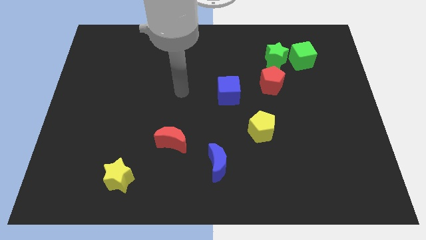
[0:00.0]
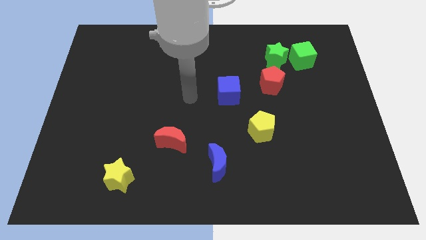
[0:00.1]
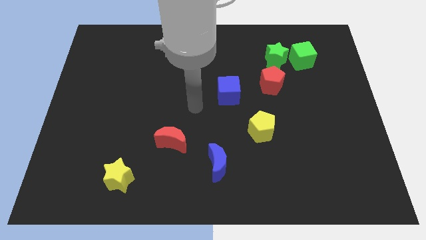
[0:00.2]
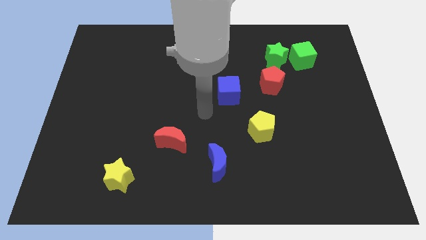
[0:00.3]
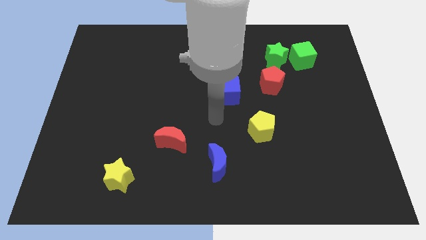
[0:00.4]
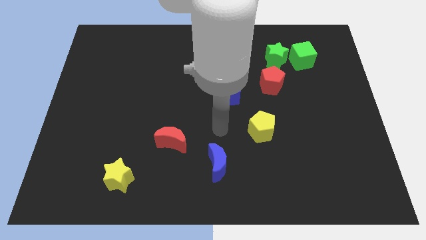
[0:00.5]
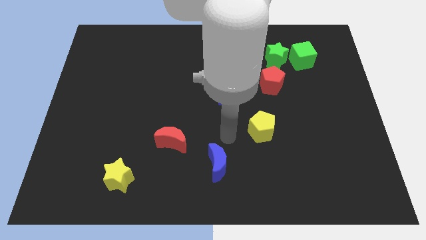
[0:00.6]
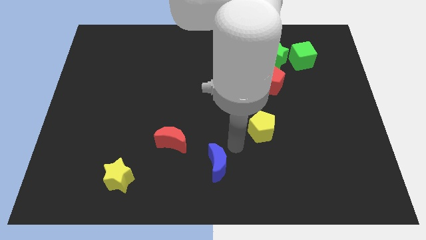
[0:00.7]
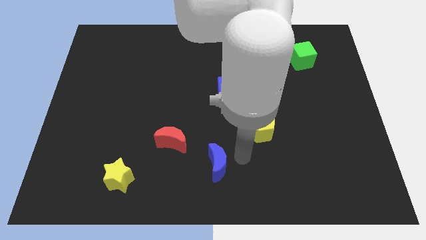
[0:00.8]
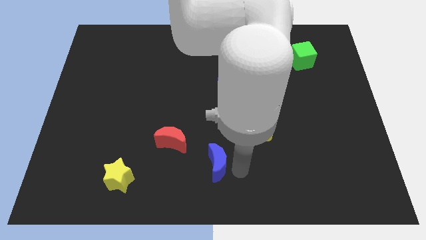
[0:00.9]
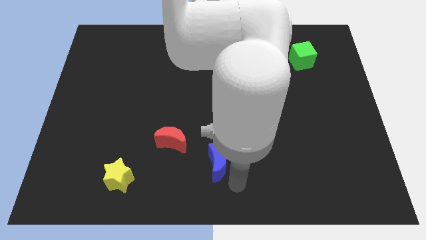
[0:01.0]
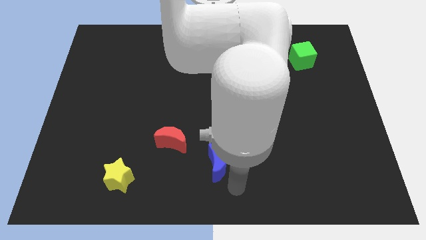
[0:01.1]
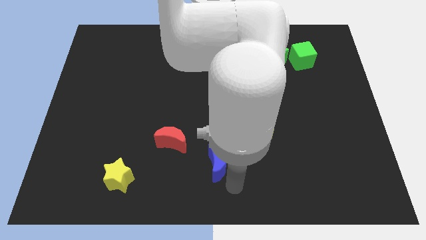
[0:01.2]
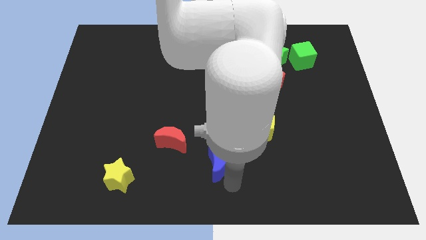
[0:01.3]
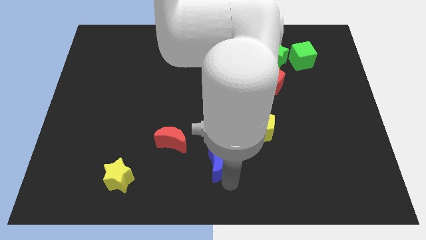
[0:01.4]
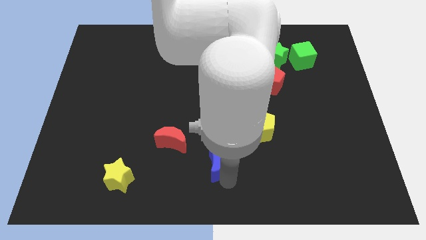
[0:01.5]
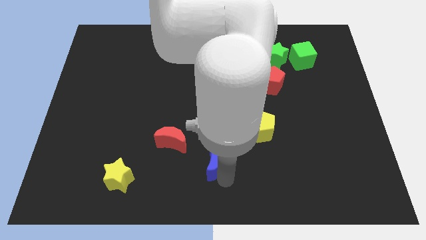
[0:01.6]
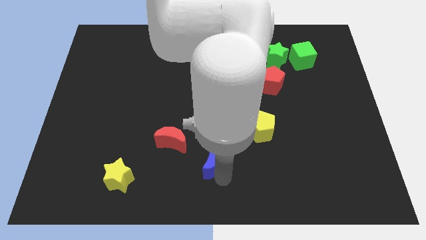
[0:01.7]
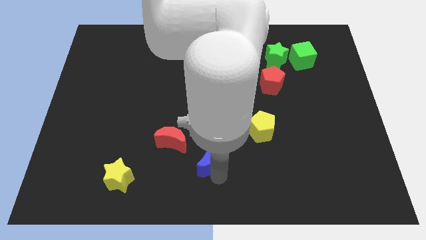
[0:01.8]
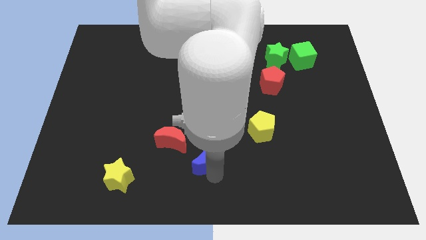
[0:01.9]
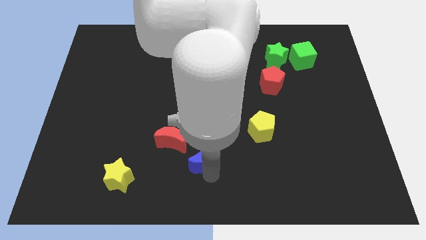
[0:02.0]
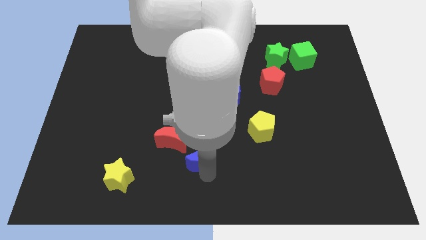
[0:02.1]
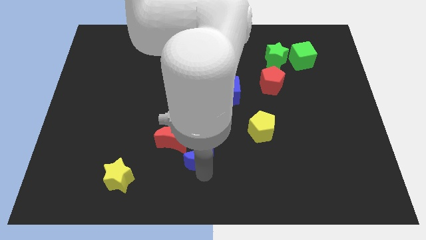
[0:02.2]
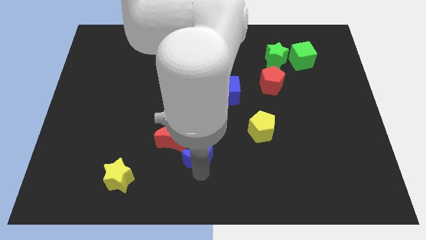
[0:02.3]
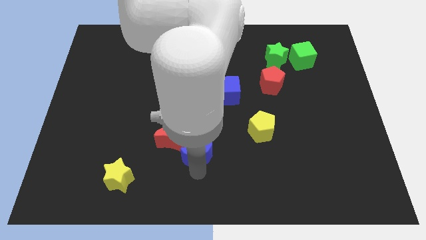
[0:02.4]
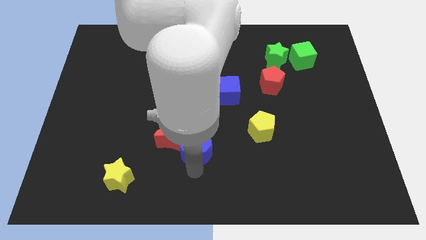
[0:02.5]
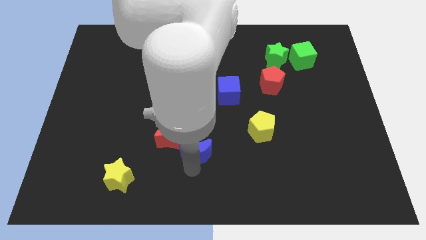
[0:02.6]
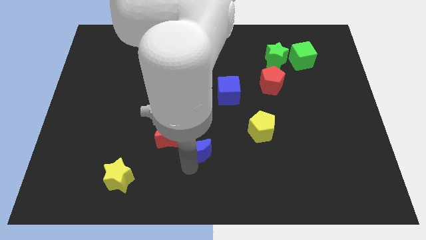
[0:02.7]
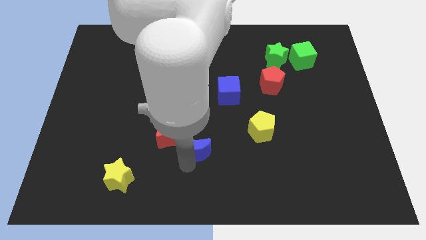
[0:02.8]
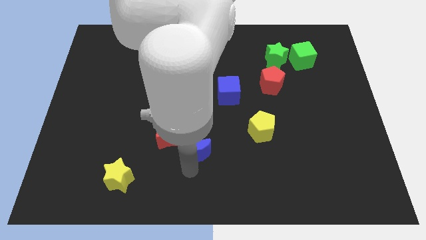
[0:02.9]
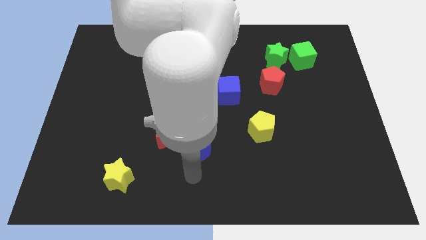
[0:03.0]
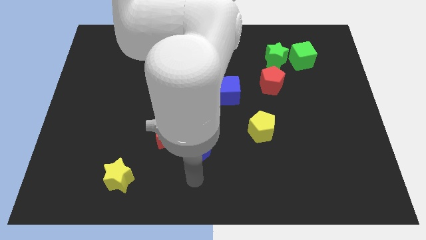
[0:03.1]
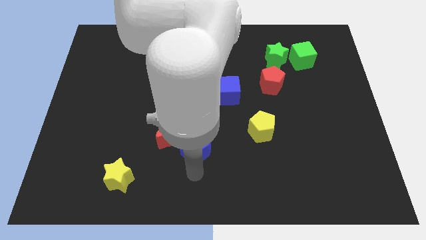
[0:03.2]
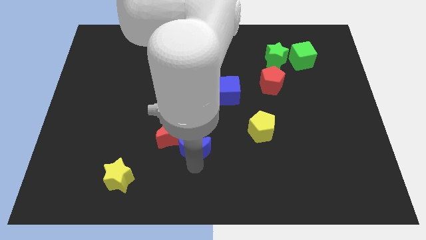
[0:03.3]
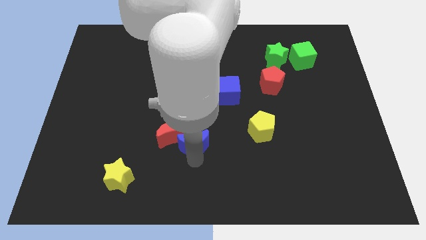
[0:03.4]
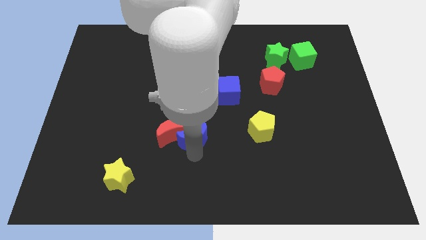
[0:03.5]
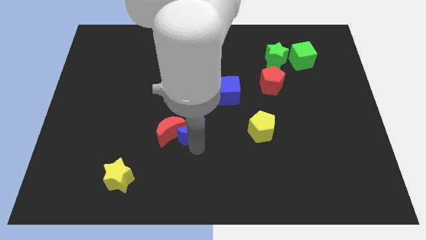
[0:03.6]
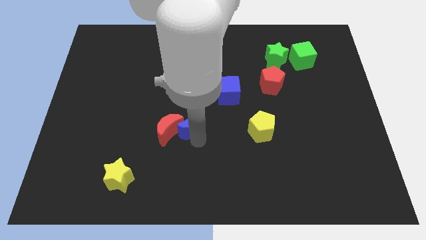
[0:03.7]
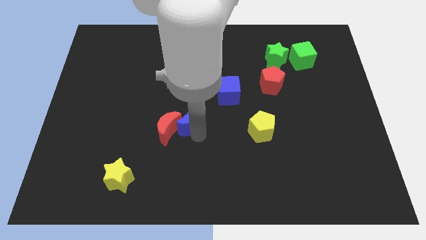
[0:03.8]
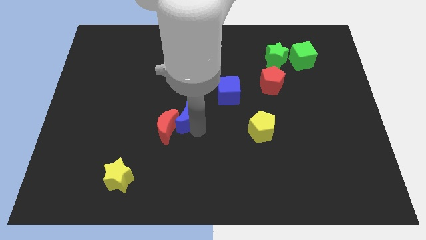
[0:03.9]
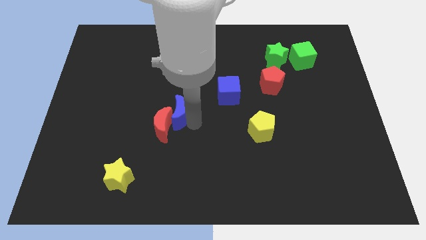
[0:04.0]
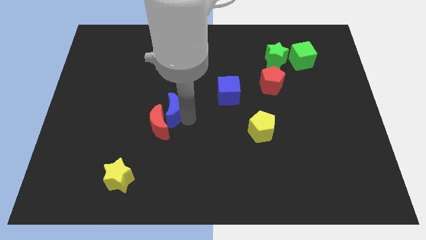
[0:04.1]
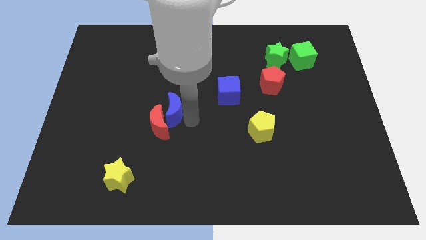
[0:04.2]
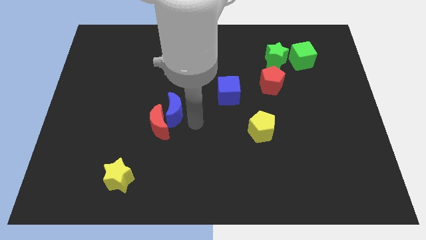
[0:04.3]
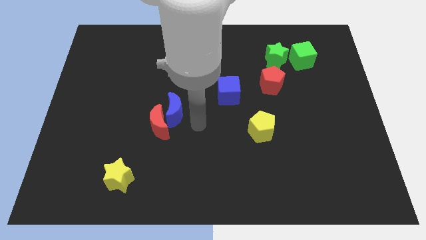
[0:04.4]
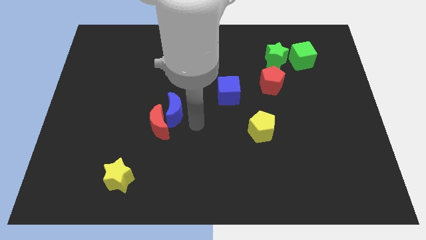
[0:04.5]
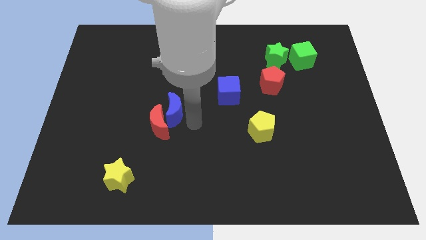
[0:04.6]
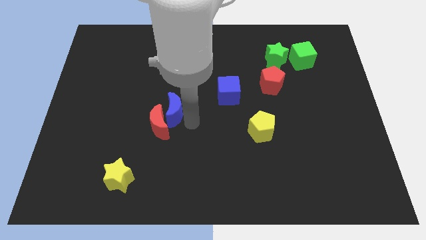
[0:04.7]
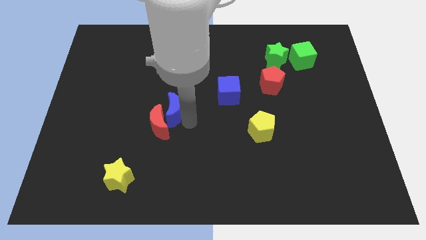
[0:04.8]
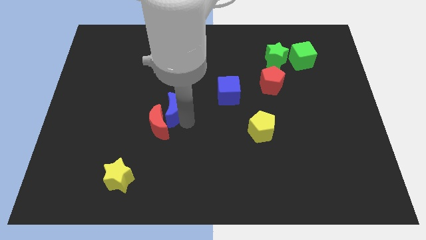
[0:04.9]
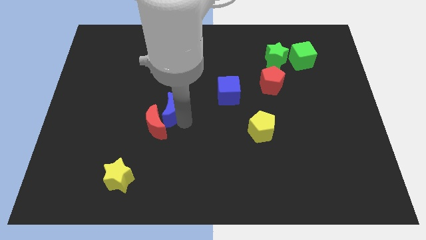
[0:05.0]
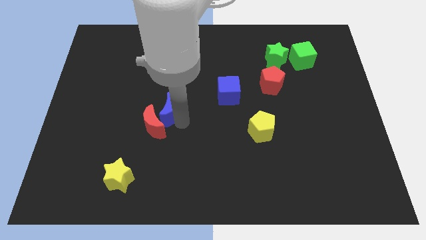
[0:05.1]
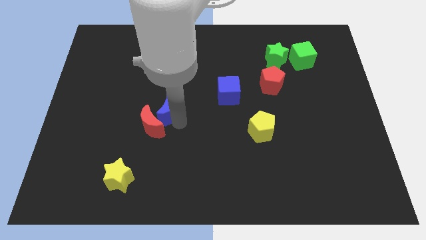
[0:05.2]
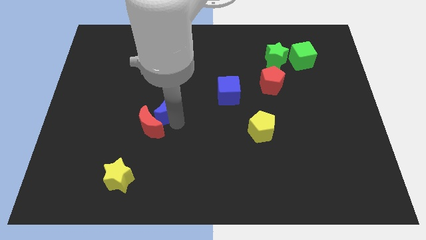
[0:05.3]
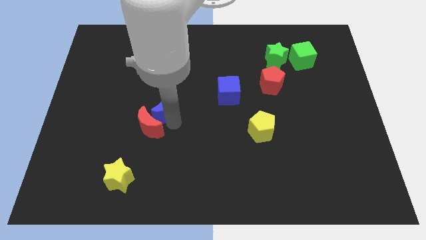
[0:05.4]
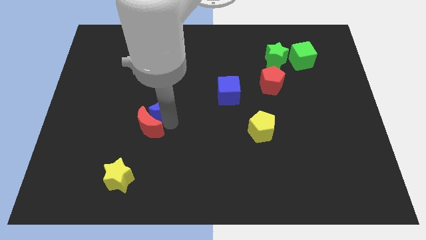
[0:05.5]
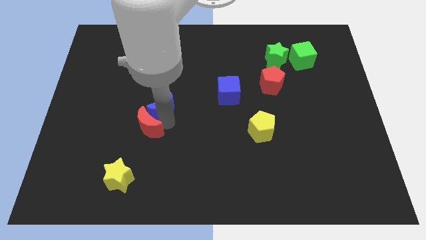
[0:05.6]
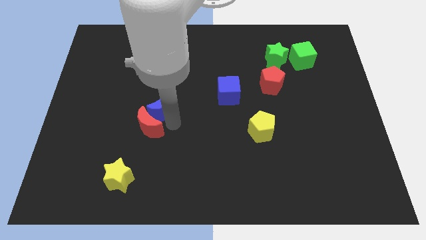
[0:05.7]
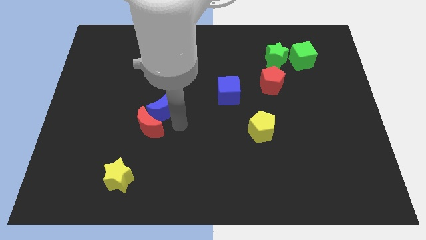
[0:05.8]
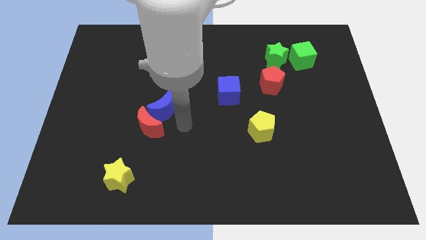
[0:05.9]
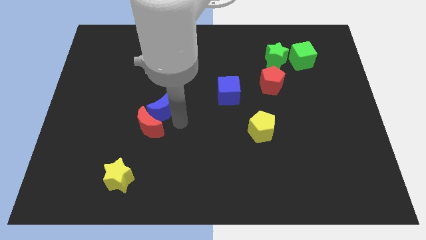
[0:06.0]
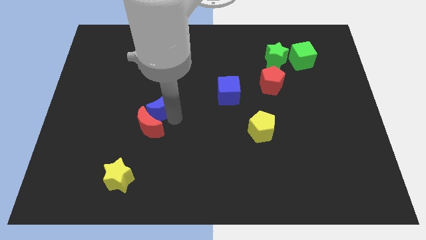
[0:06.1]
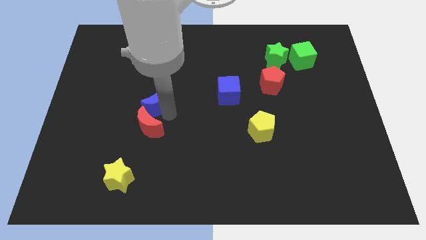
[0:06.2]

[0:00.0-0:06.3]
move the blue moon upwards and to the left diagonally

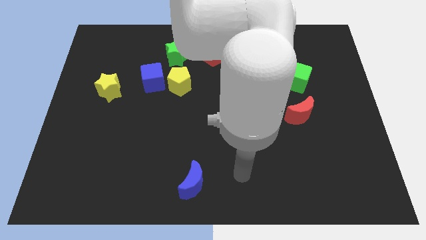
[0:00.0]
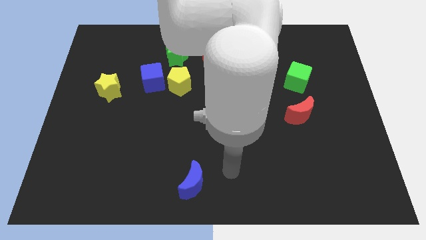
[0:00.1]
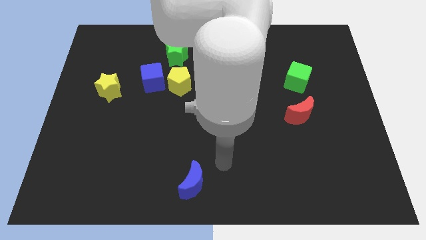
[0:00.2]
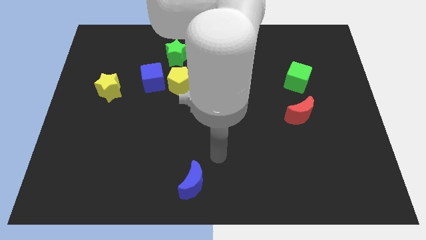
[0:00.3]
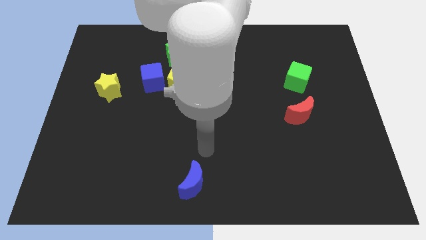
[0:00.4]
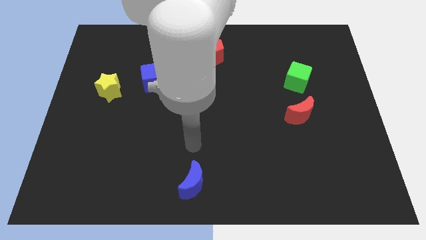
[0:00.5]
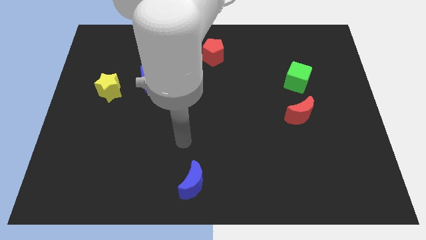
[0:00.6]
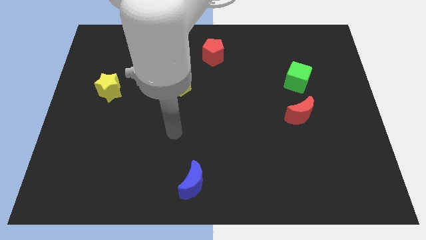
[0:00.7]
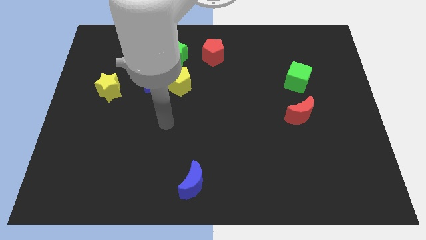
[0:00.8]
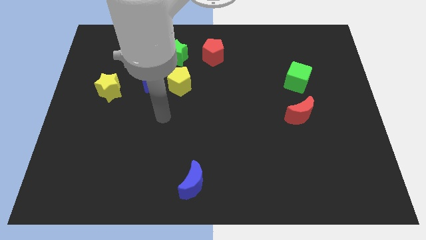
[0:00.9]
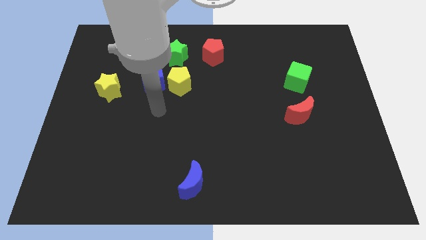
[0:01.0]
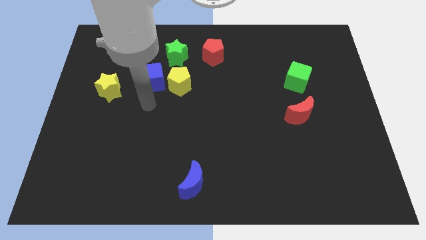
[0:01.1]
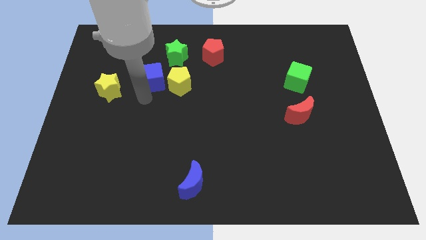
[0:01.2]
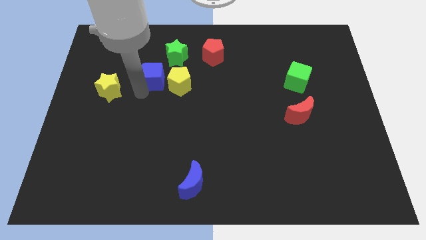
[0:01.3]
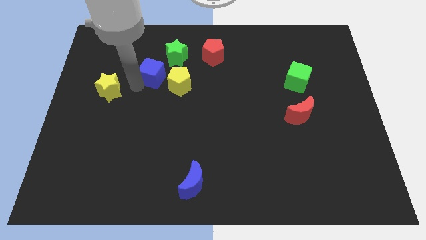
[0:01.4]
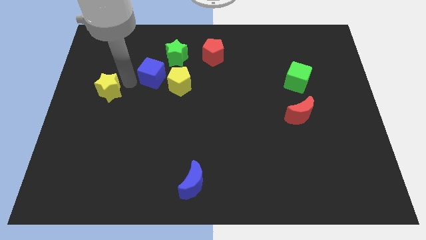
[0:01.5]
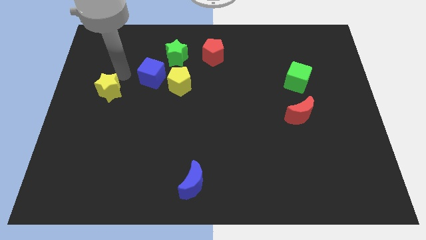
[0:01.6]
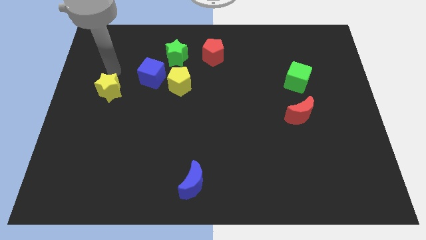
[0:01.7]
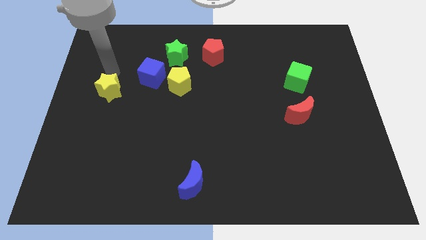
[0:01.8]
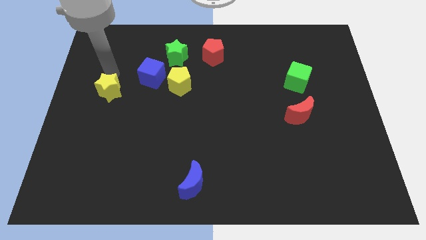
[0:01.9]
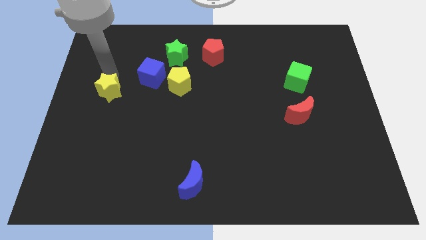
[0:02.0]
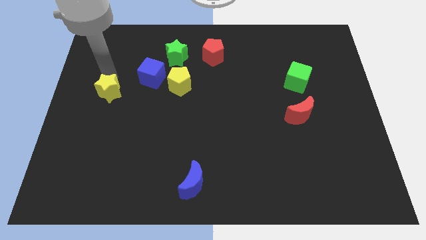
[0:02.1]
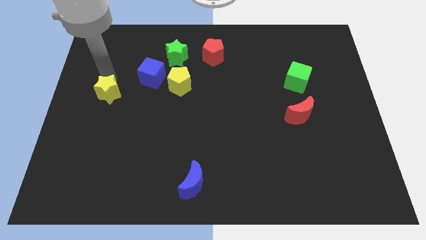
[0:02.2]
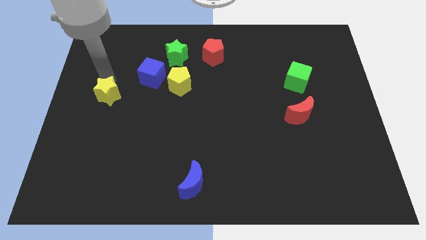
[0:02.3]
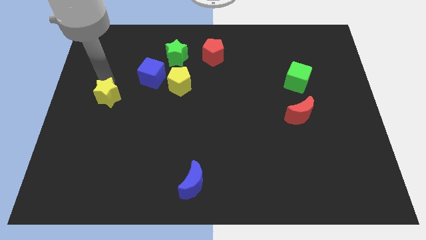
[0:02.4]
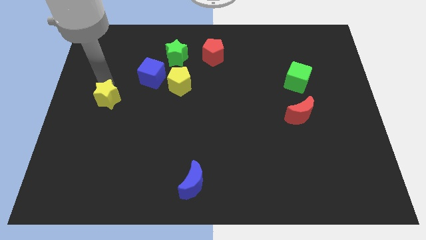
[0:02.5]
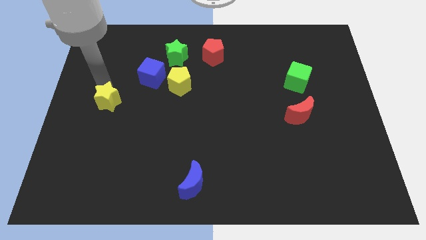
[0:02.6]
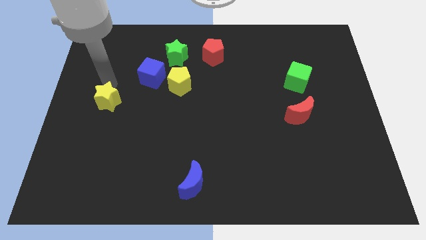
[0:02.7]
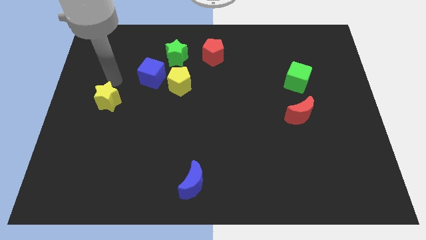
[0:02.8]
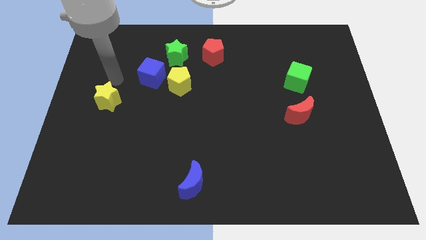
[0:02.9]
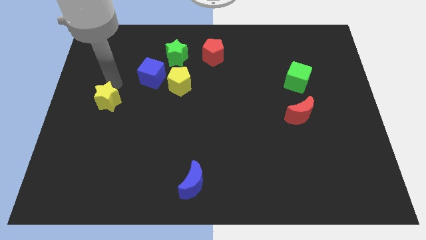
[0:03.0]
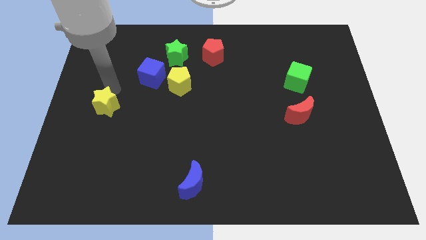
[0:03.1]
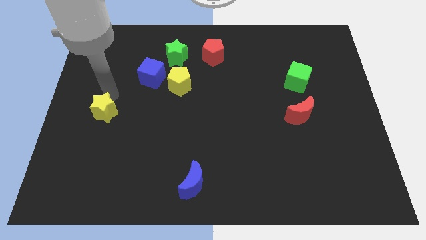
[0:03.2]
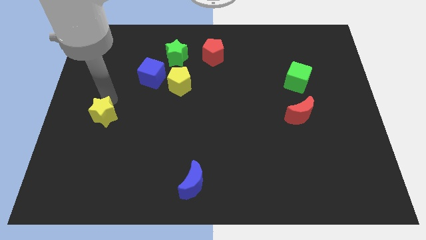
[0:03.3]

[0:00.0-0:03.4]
move the yellow star slightly downwards
